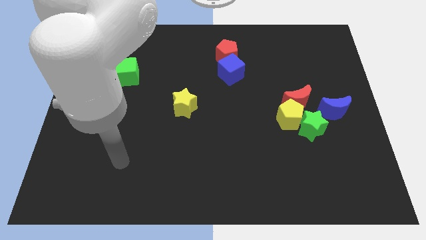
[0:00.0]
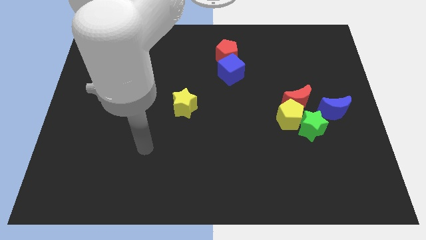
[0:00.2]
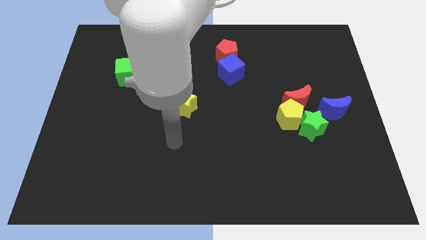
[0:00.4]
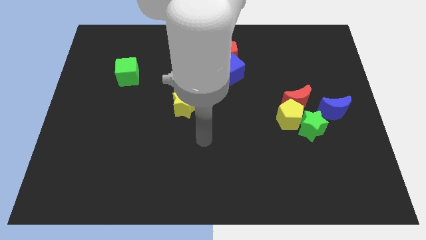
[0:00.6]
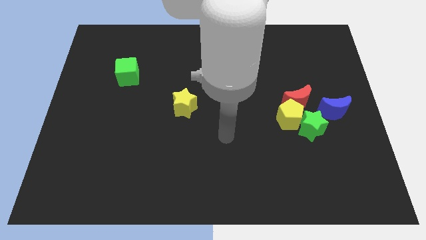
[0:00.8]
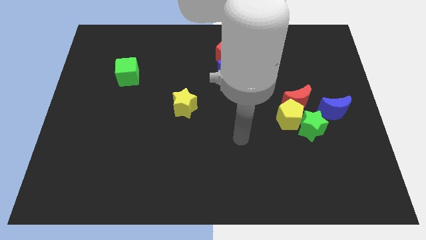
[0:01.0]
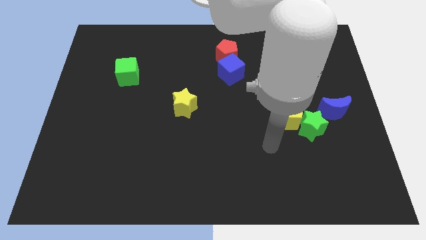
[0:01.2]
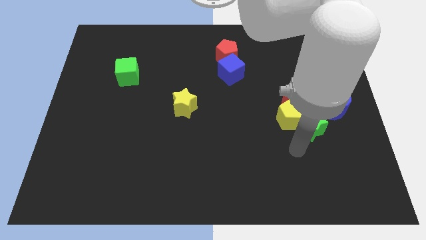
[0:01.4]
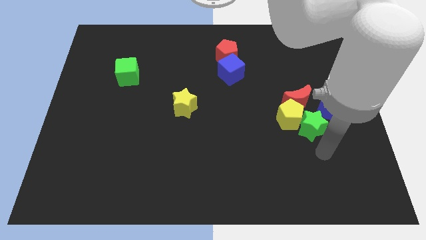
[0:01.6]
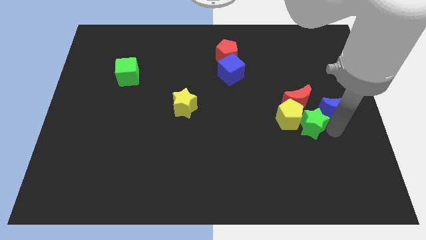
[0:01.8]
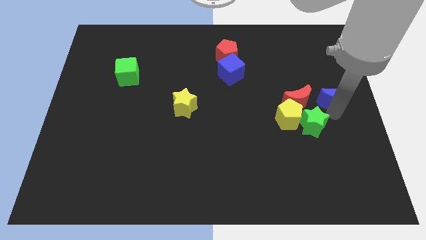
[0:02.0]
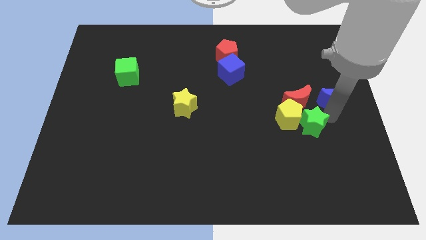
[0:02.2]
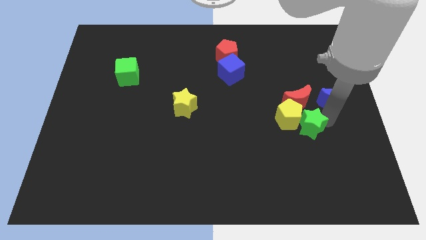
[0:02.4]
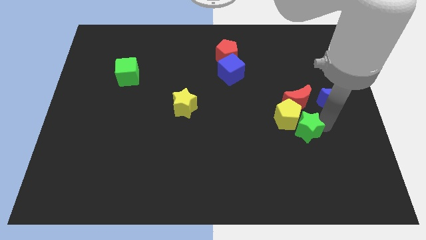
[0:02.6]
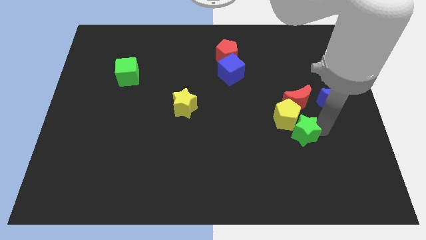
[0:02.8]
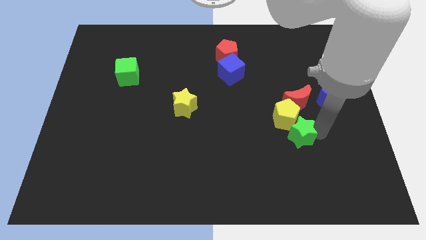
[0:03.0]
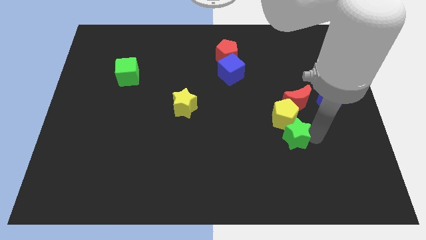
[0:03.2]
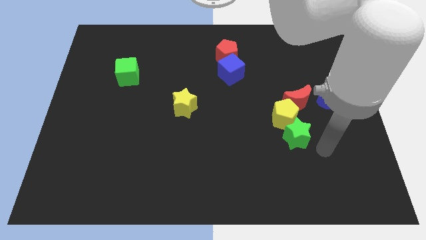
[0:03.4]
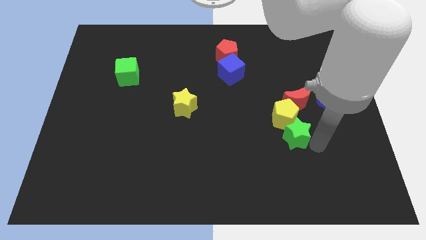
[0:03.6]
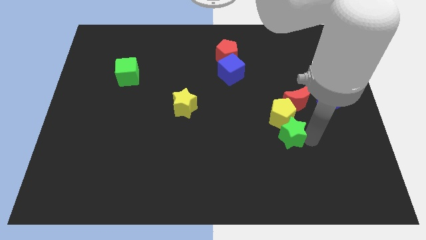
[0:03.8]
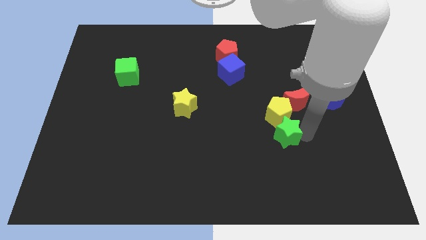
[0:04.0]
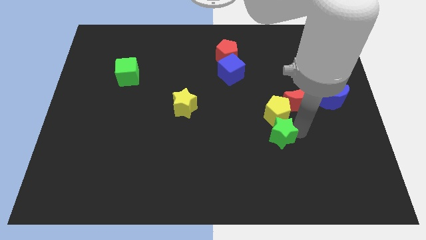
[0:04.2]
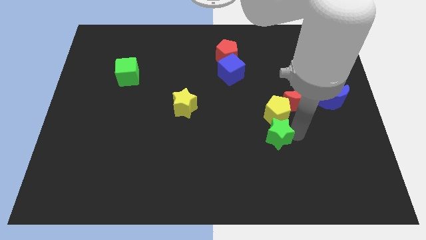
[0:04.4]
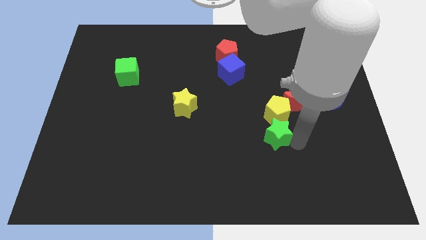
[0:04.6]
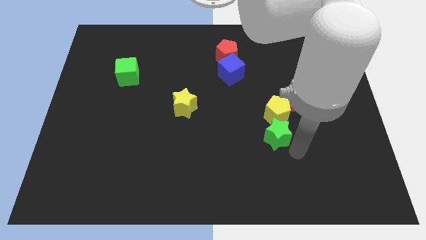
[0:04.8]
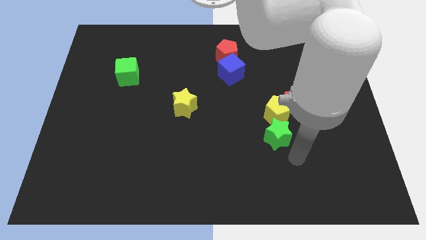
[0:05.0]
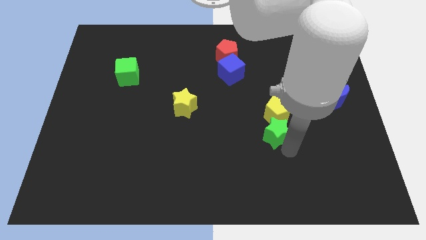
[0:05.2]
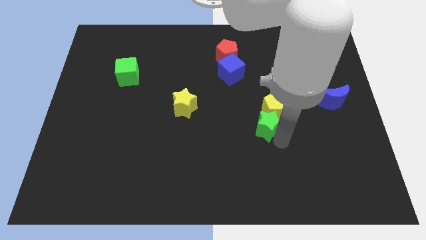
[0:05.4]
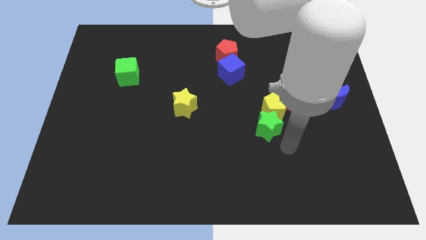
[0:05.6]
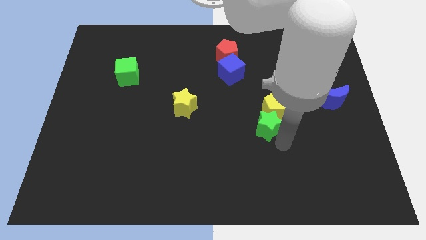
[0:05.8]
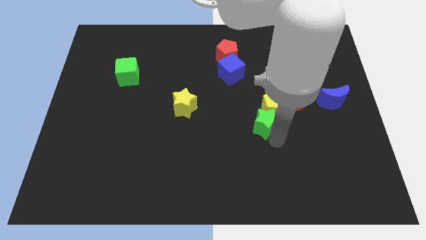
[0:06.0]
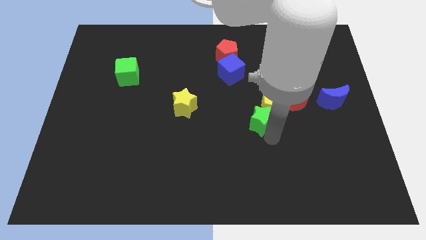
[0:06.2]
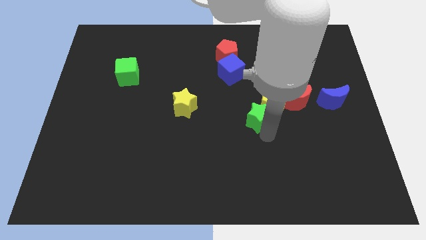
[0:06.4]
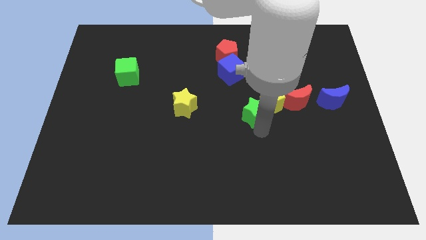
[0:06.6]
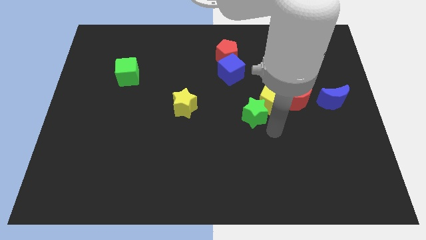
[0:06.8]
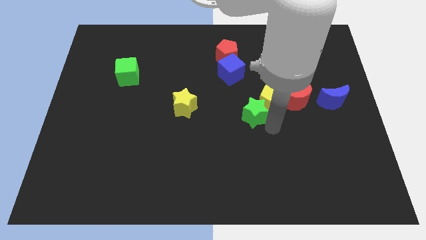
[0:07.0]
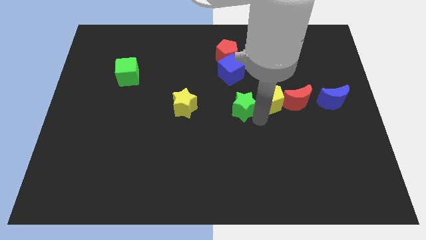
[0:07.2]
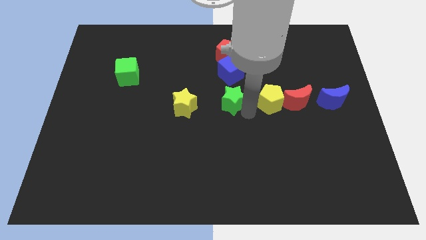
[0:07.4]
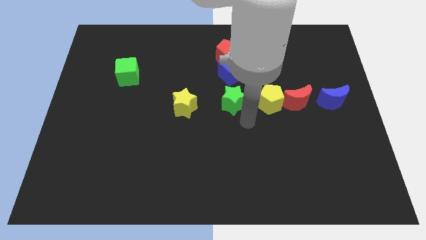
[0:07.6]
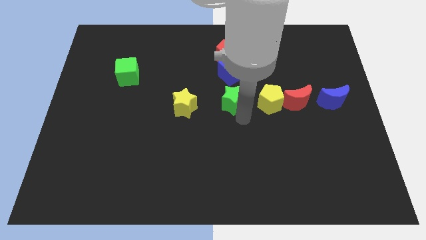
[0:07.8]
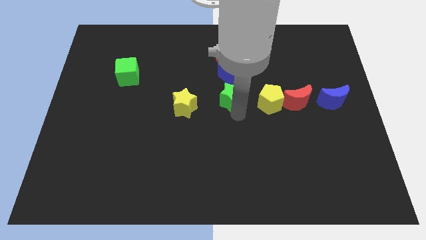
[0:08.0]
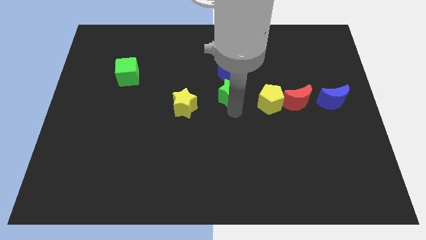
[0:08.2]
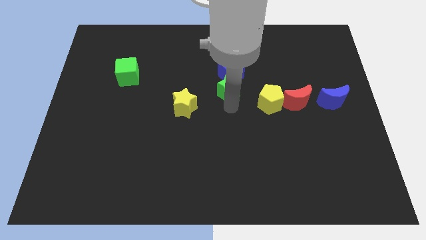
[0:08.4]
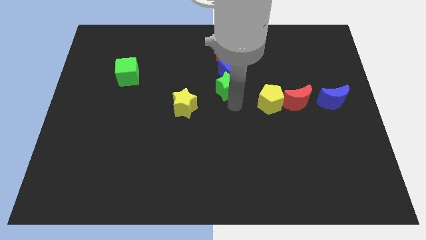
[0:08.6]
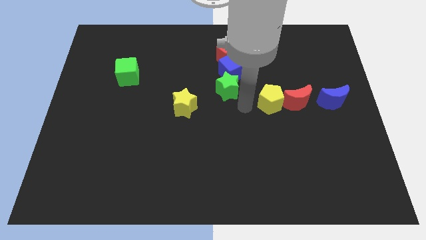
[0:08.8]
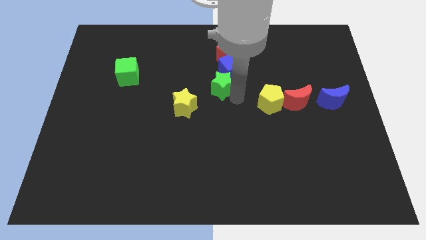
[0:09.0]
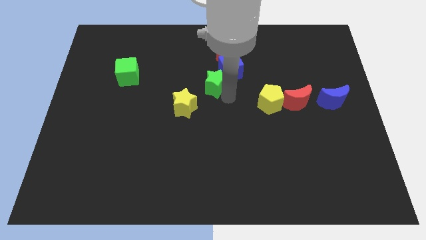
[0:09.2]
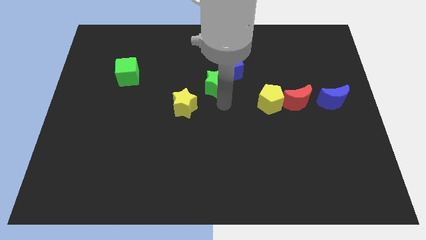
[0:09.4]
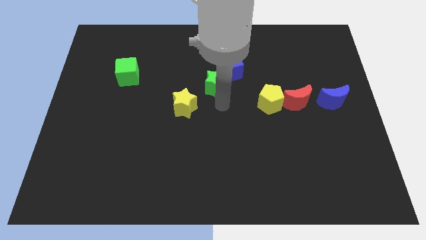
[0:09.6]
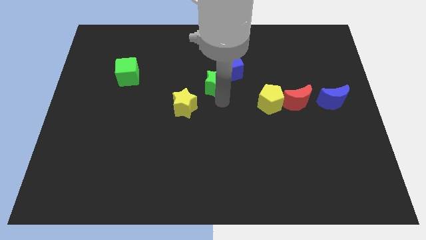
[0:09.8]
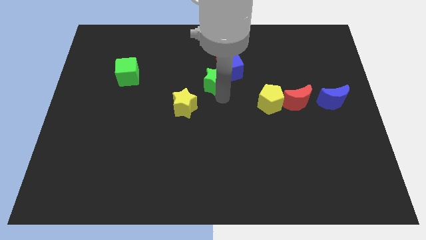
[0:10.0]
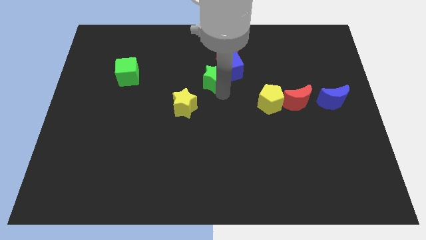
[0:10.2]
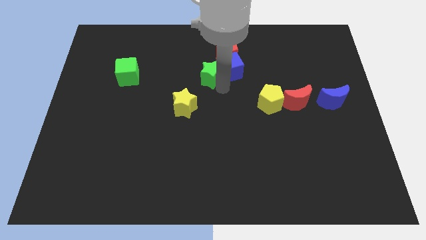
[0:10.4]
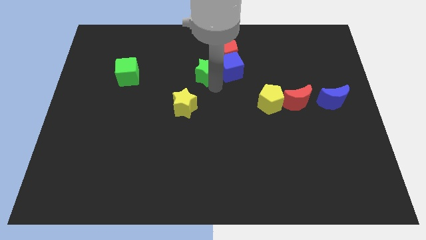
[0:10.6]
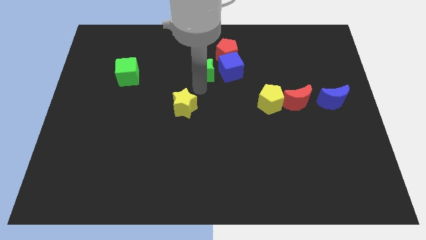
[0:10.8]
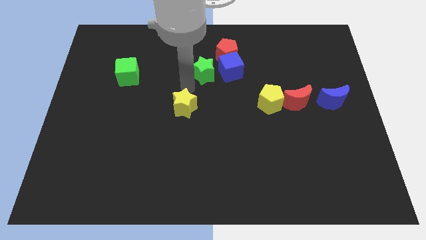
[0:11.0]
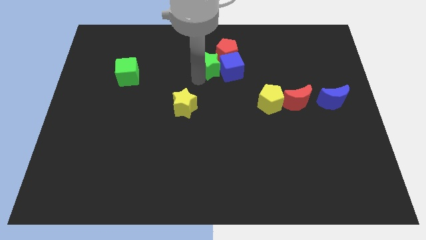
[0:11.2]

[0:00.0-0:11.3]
push the green star towards the red pentagon

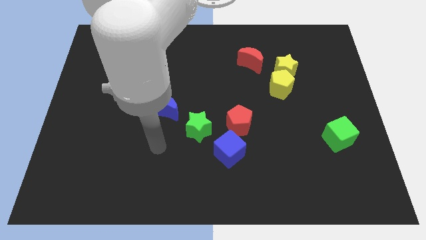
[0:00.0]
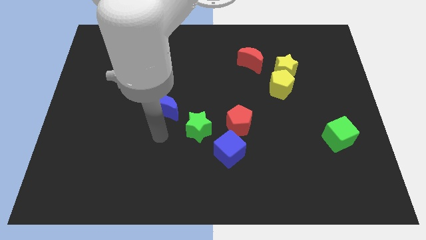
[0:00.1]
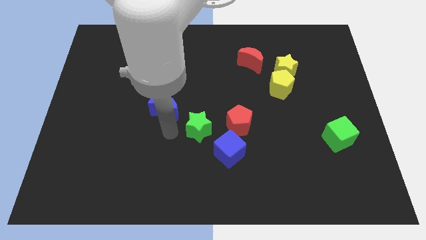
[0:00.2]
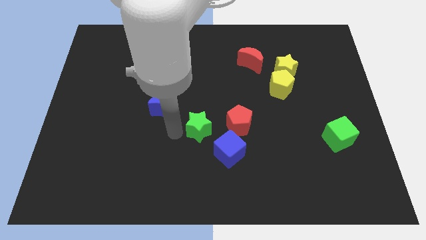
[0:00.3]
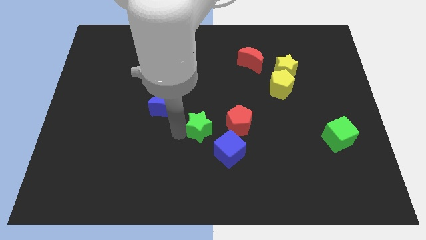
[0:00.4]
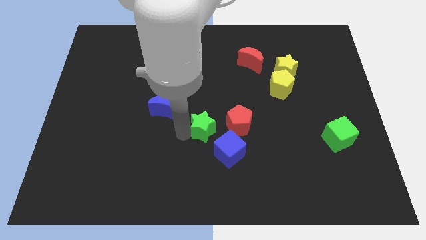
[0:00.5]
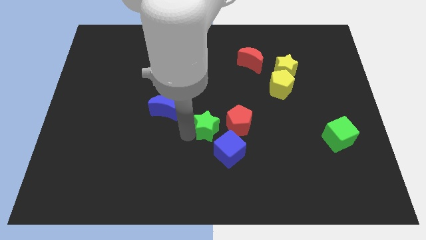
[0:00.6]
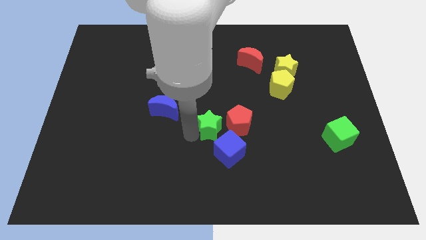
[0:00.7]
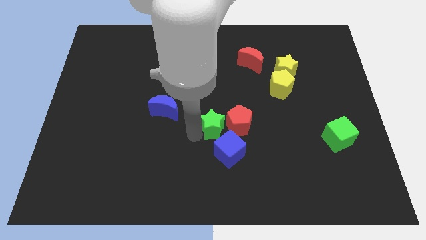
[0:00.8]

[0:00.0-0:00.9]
put the green star towards the red pentagon
